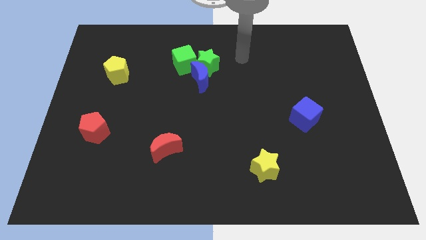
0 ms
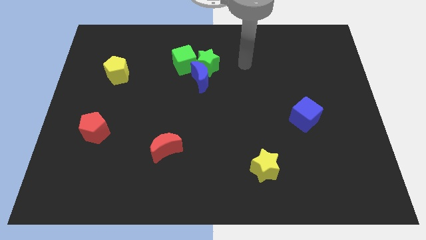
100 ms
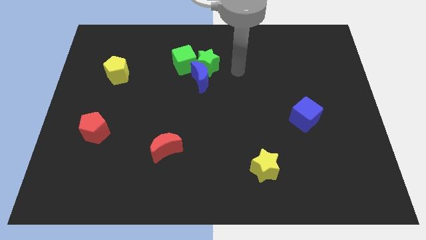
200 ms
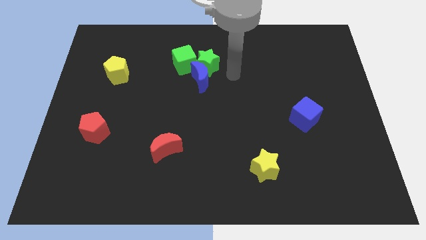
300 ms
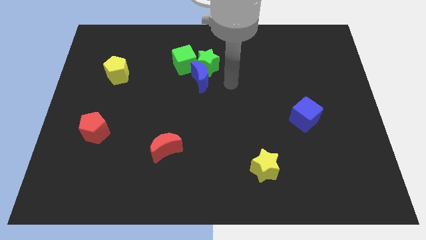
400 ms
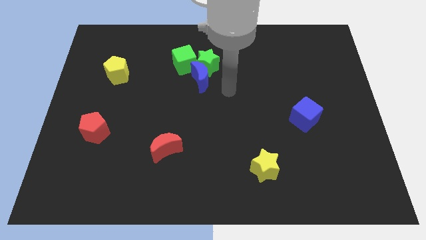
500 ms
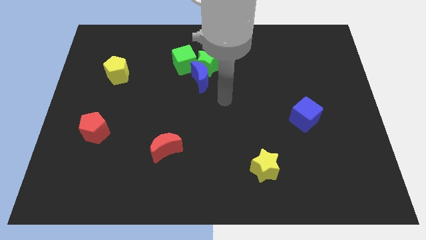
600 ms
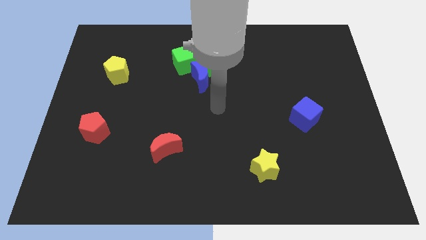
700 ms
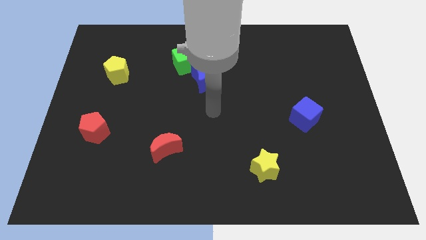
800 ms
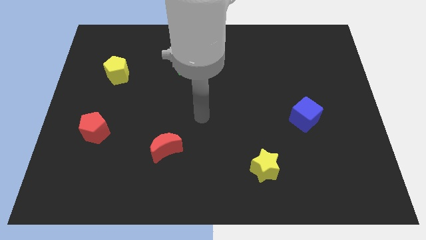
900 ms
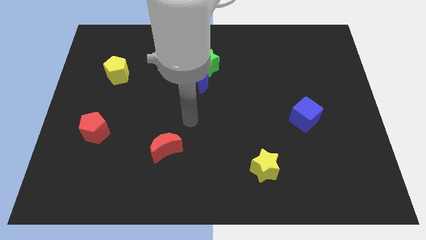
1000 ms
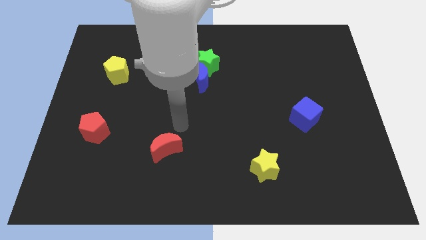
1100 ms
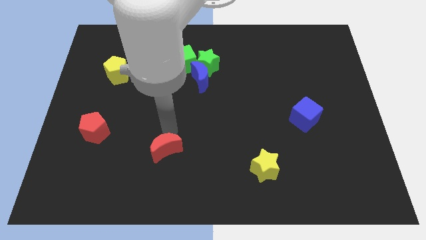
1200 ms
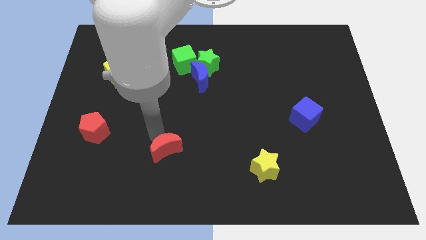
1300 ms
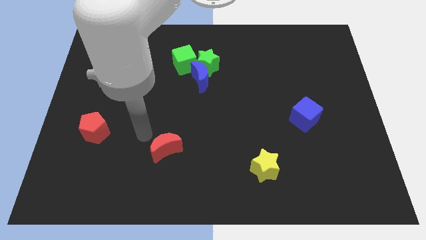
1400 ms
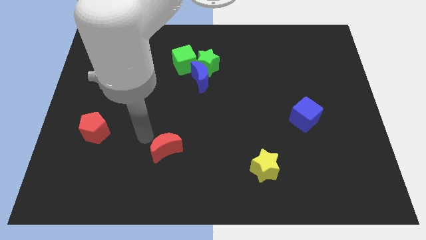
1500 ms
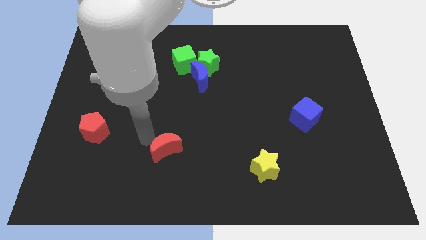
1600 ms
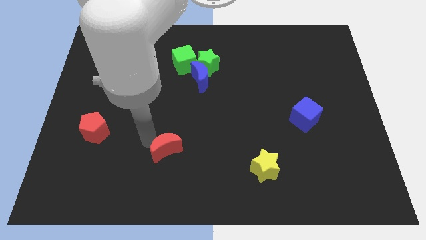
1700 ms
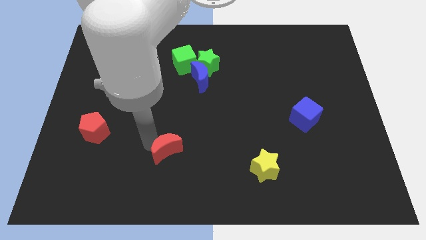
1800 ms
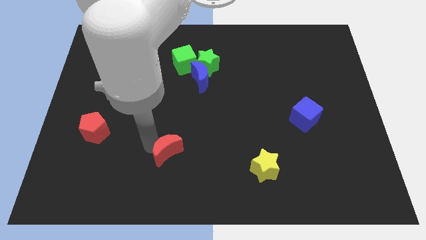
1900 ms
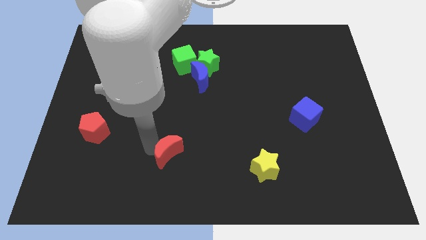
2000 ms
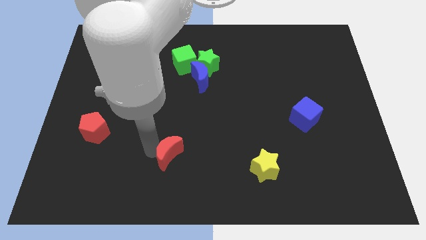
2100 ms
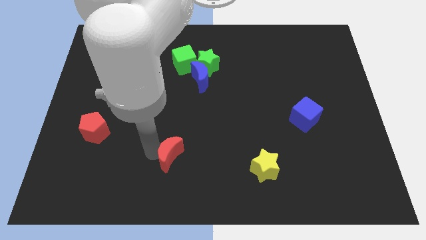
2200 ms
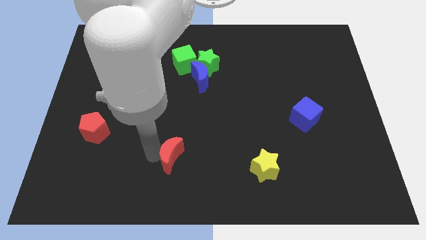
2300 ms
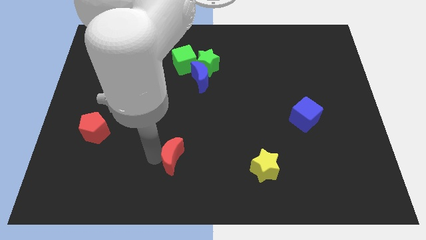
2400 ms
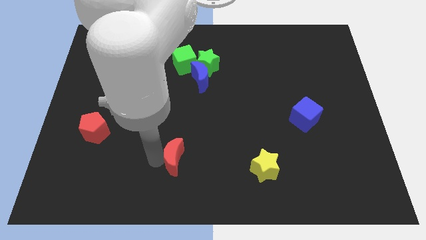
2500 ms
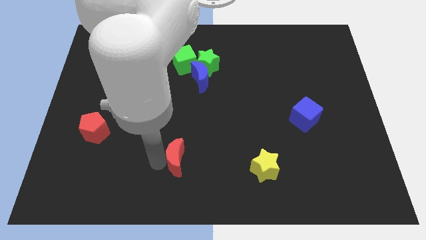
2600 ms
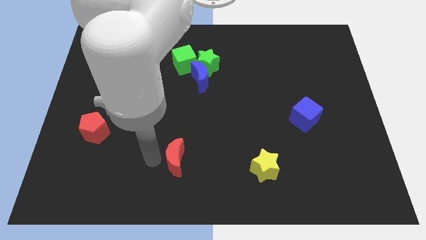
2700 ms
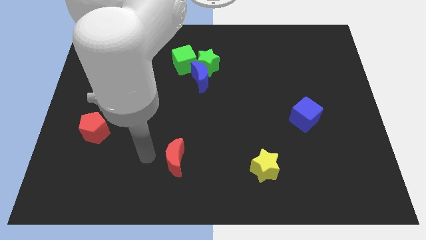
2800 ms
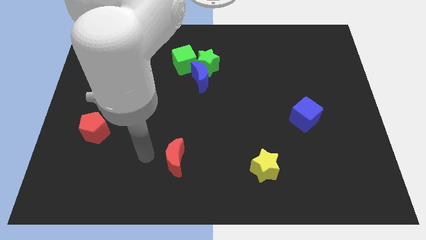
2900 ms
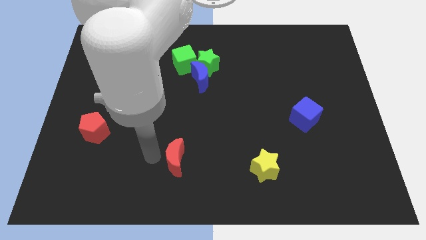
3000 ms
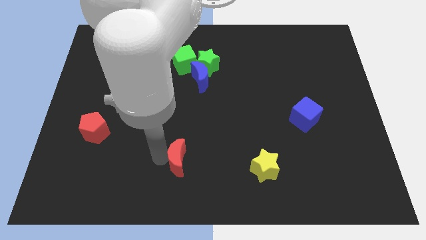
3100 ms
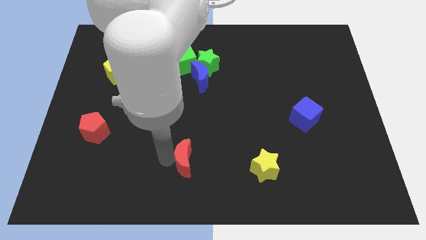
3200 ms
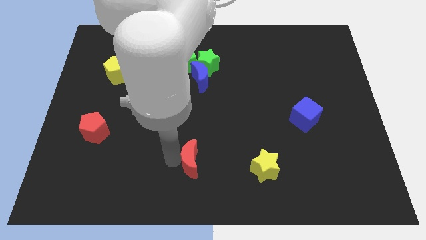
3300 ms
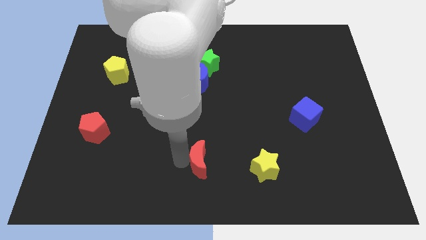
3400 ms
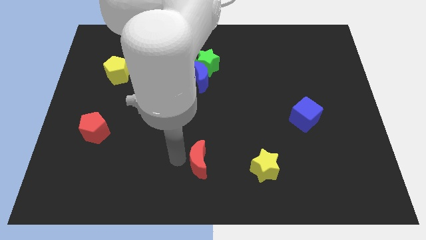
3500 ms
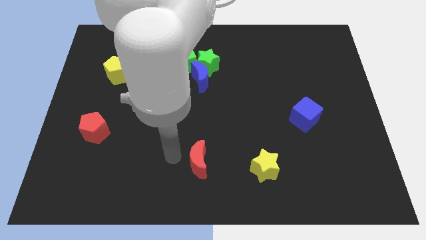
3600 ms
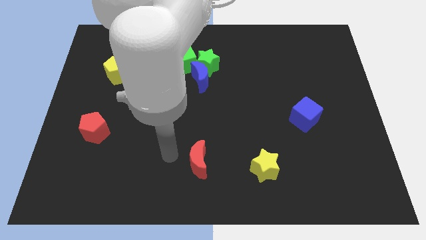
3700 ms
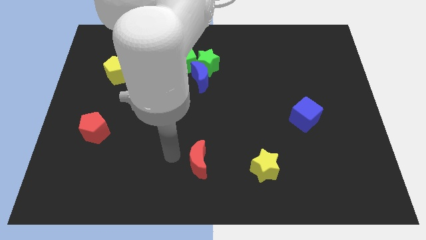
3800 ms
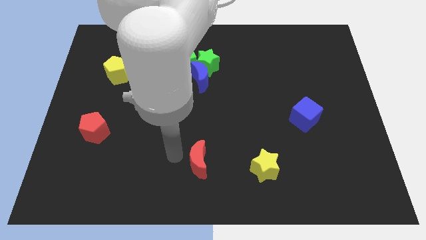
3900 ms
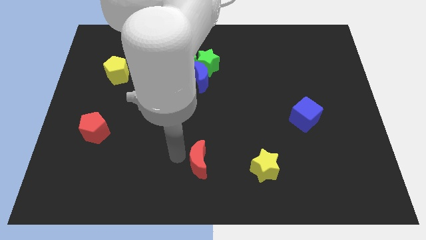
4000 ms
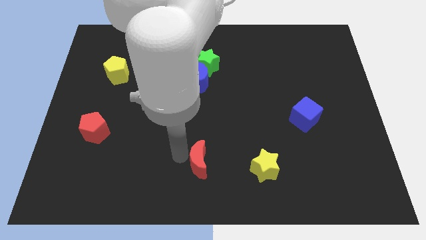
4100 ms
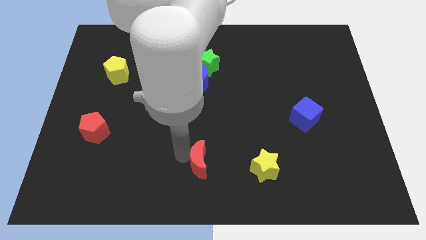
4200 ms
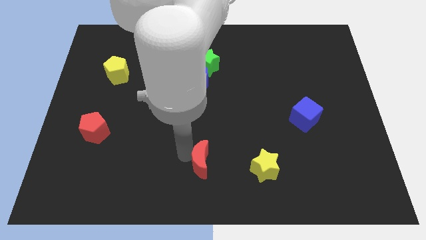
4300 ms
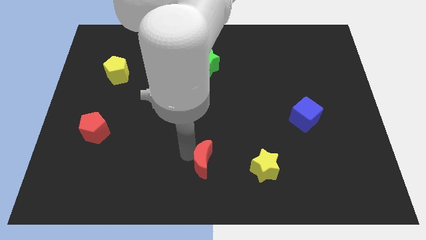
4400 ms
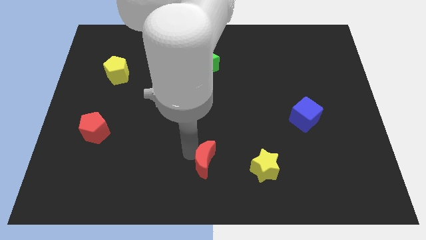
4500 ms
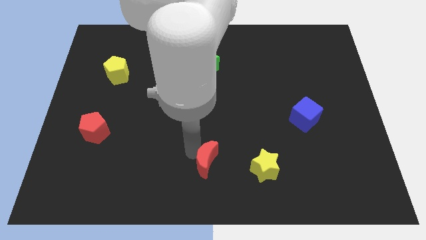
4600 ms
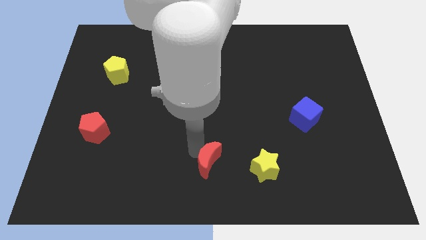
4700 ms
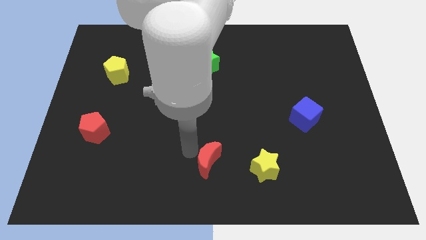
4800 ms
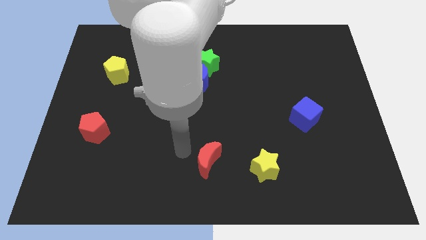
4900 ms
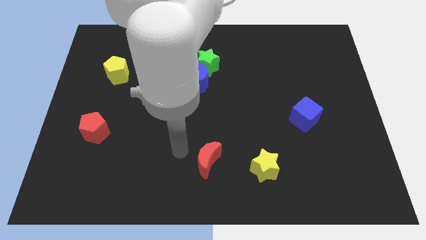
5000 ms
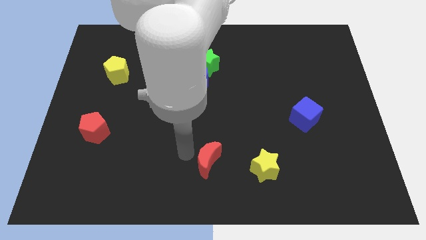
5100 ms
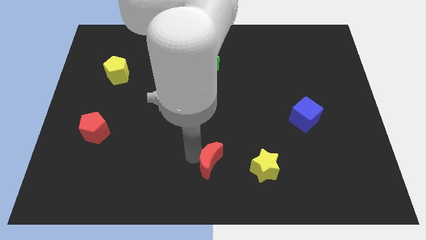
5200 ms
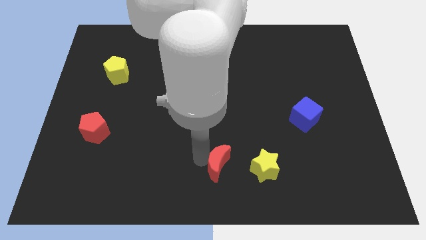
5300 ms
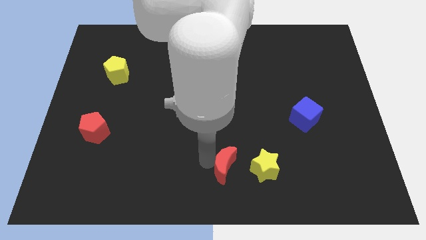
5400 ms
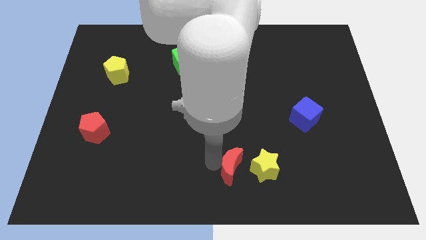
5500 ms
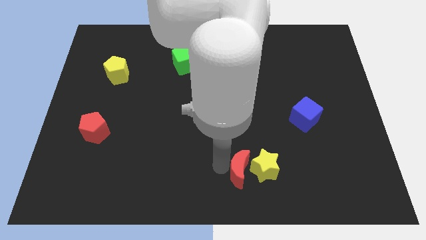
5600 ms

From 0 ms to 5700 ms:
move the red moon next to the yellow star

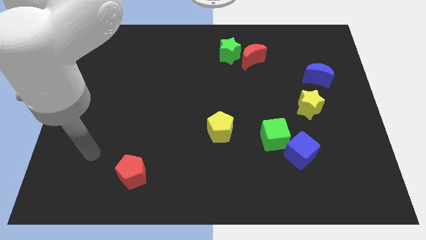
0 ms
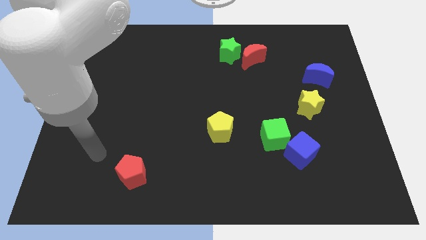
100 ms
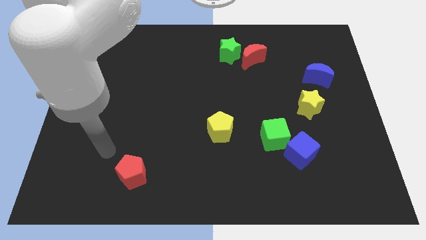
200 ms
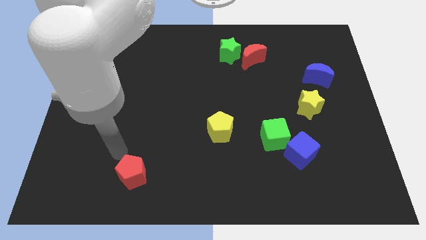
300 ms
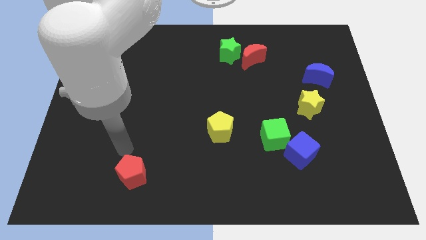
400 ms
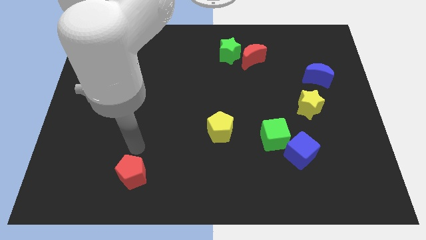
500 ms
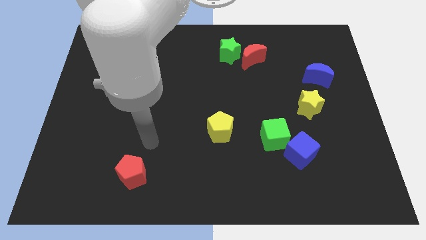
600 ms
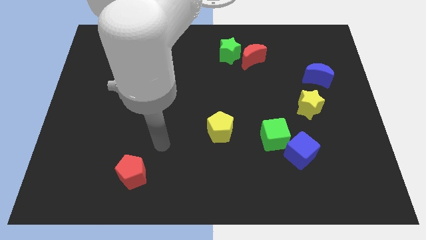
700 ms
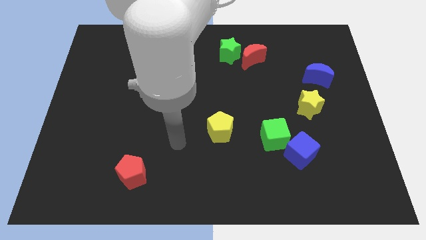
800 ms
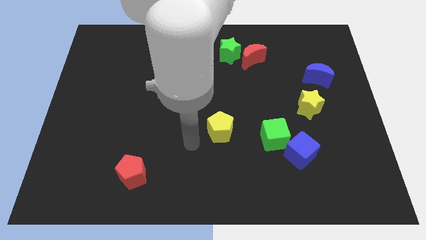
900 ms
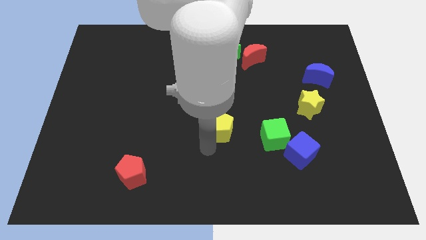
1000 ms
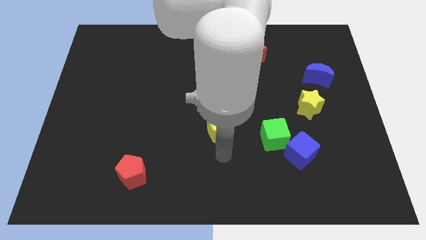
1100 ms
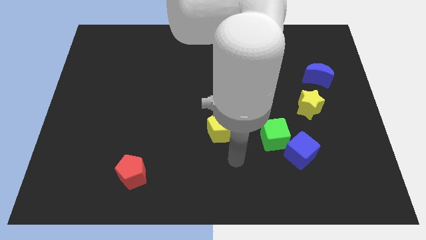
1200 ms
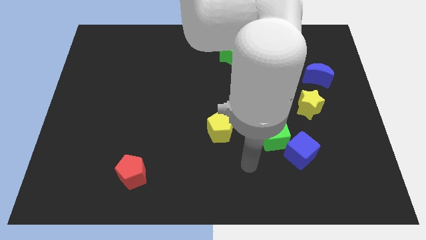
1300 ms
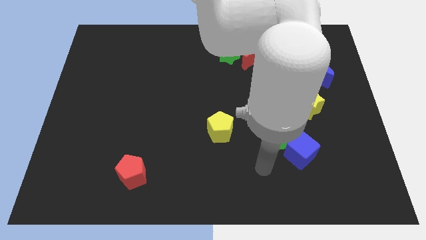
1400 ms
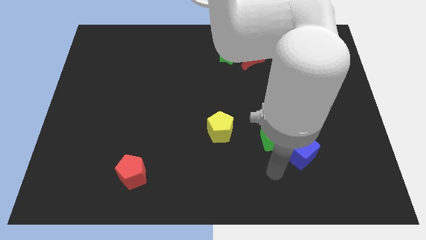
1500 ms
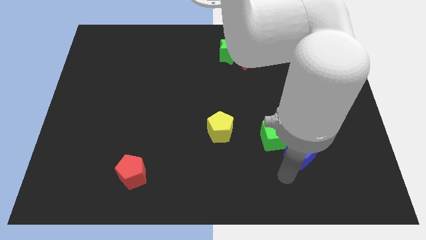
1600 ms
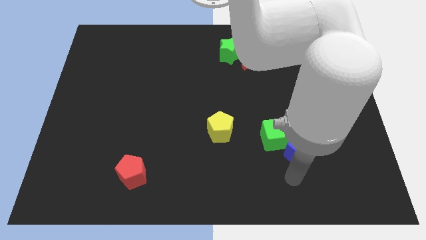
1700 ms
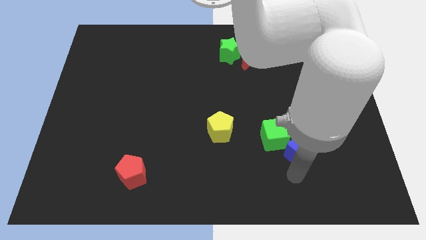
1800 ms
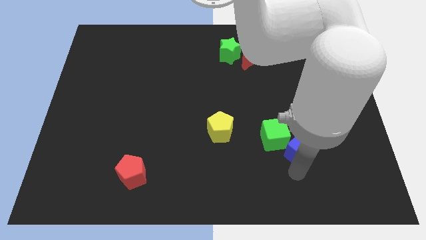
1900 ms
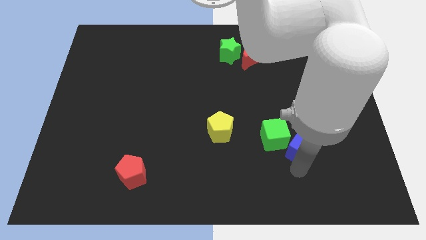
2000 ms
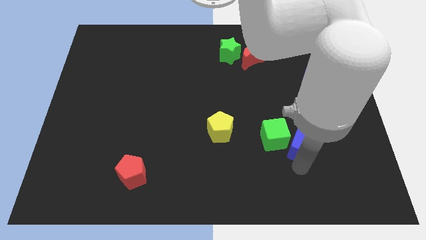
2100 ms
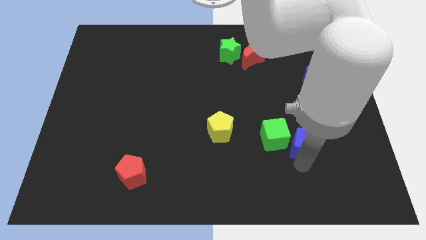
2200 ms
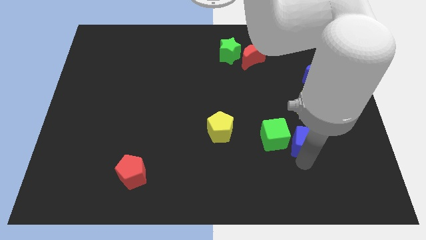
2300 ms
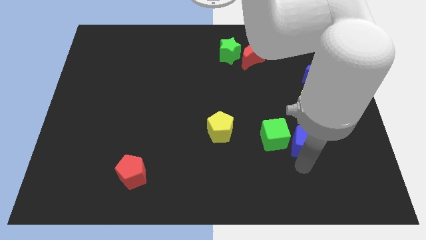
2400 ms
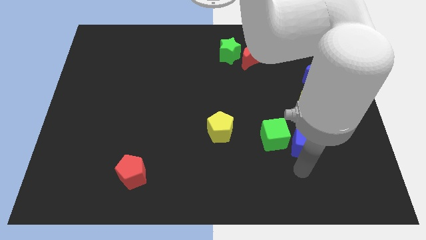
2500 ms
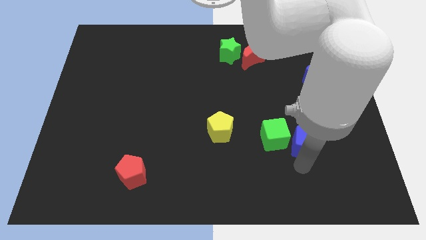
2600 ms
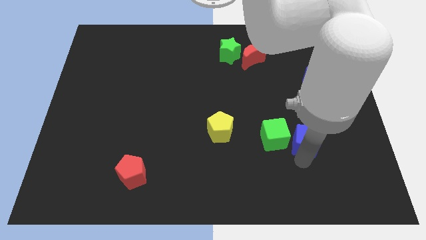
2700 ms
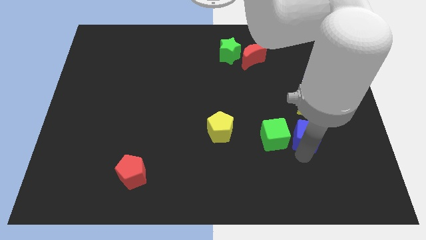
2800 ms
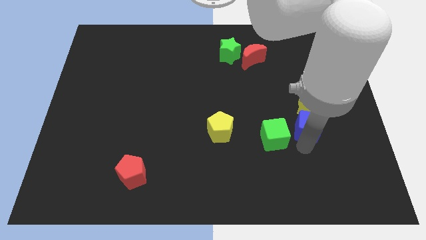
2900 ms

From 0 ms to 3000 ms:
put the blue cube to the yellow star
